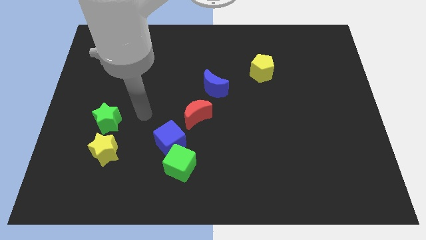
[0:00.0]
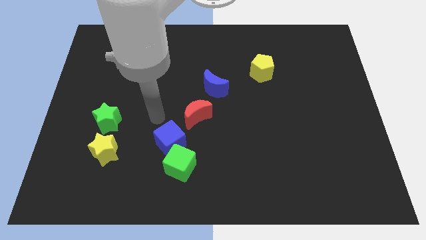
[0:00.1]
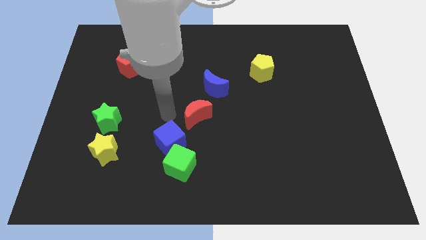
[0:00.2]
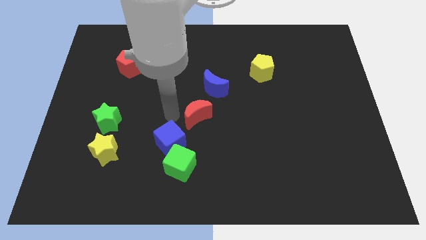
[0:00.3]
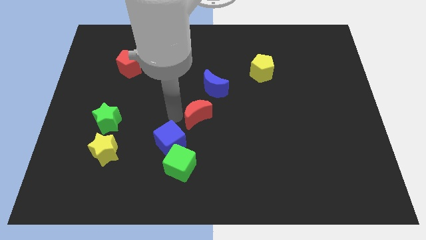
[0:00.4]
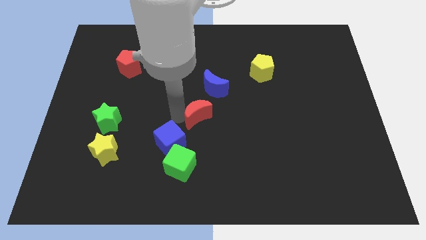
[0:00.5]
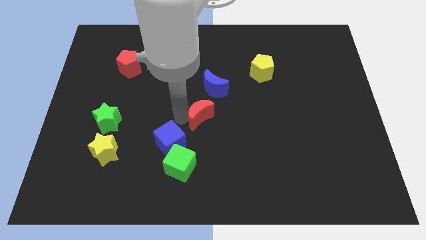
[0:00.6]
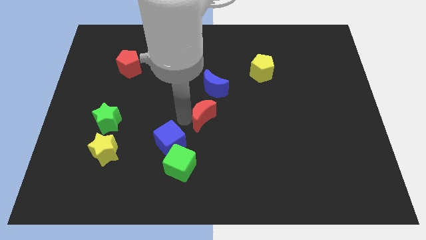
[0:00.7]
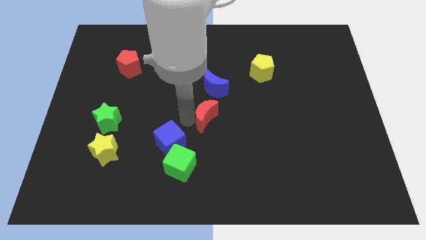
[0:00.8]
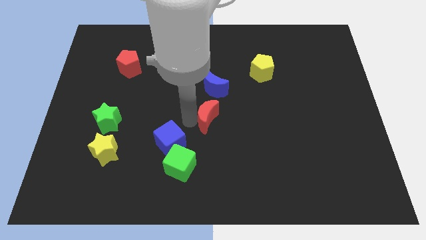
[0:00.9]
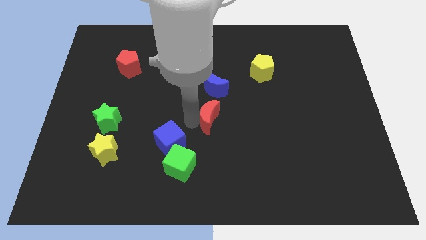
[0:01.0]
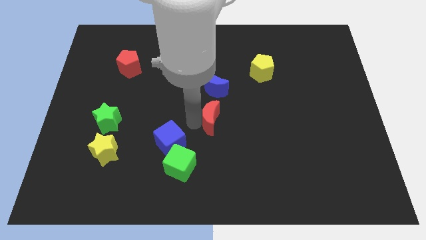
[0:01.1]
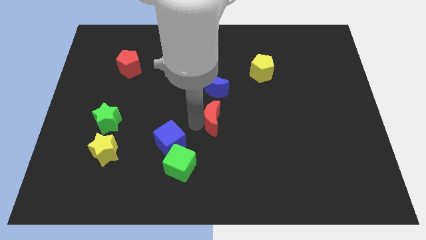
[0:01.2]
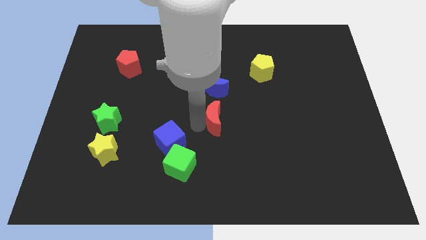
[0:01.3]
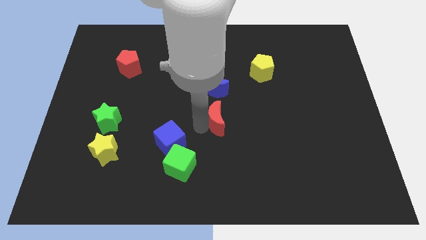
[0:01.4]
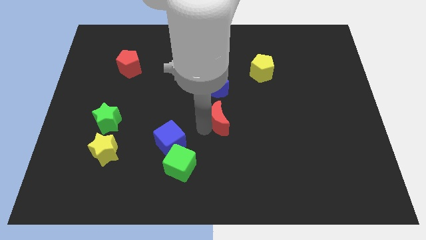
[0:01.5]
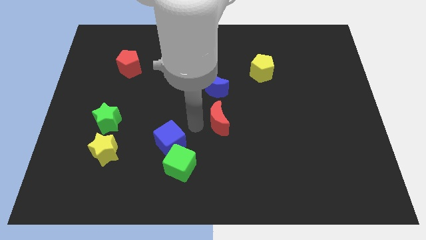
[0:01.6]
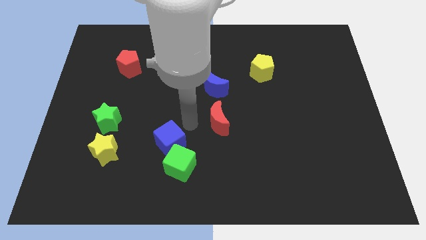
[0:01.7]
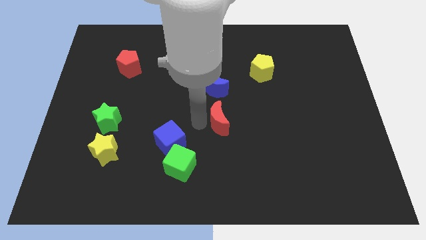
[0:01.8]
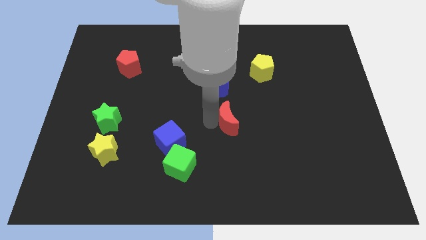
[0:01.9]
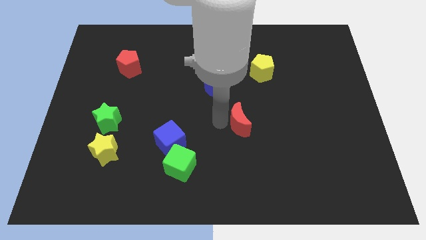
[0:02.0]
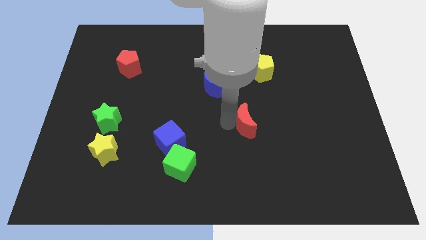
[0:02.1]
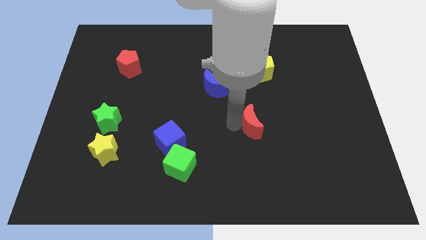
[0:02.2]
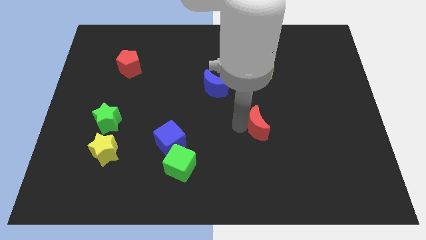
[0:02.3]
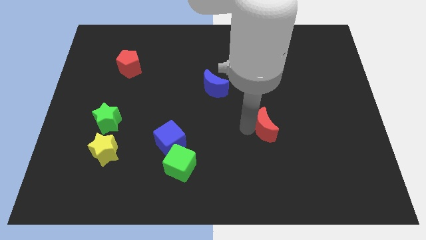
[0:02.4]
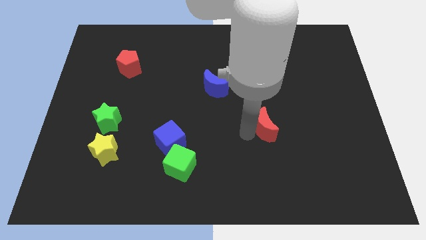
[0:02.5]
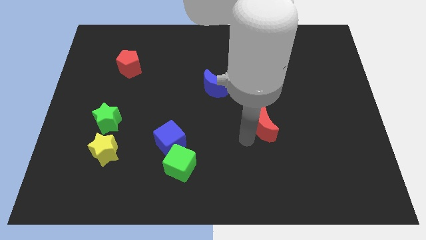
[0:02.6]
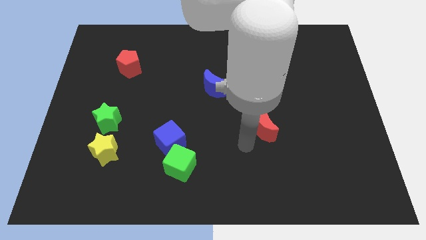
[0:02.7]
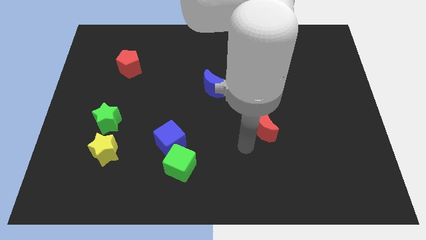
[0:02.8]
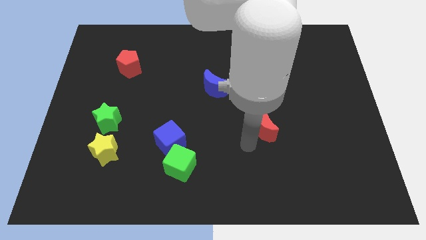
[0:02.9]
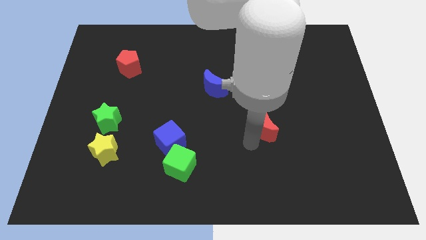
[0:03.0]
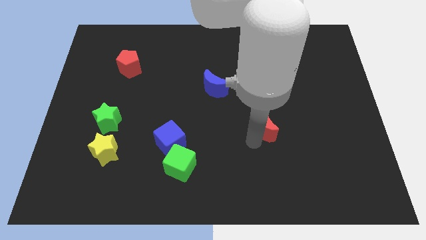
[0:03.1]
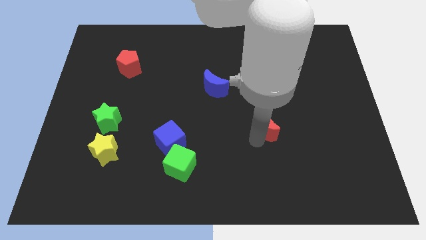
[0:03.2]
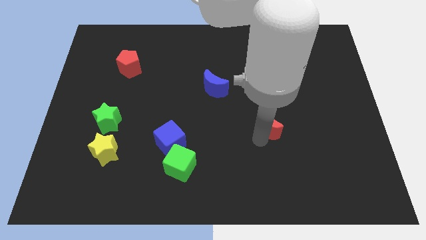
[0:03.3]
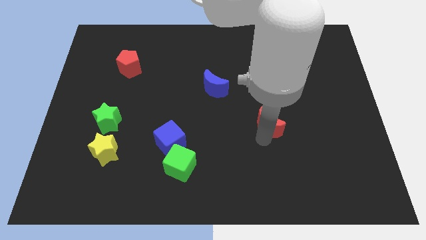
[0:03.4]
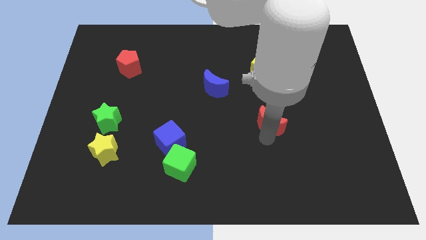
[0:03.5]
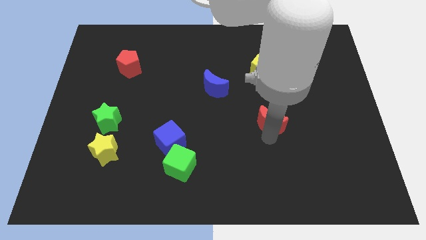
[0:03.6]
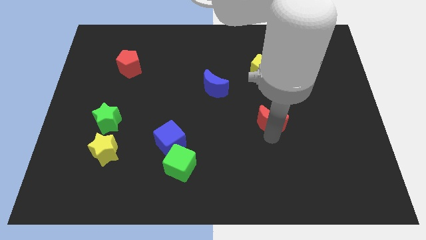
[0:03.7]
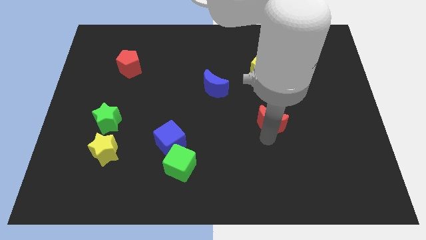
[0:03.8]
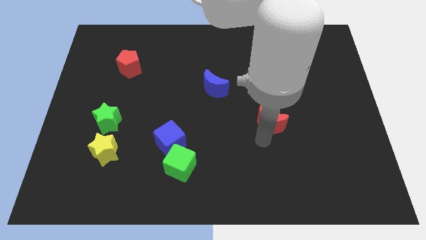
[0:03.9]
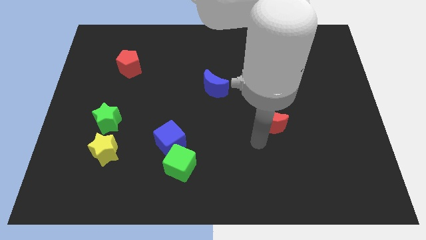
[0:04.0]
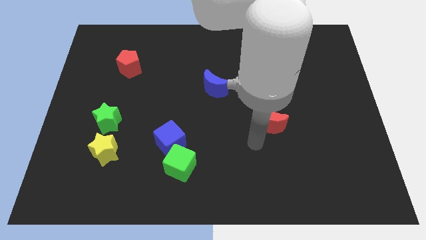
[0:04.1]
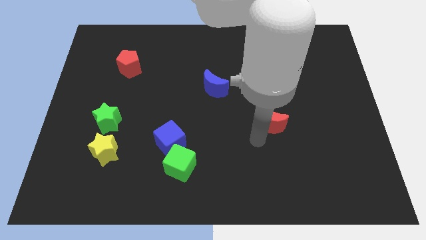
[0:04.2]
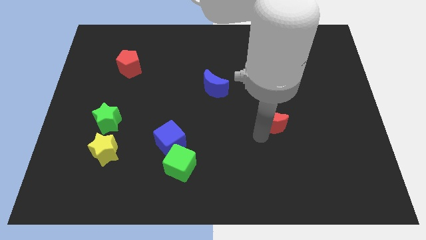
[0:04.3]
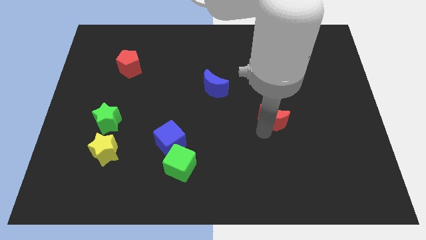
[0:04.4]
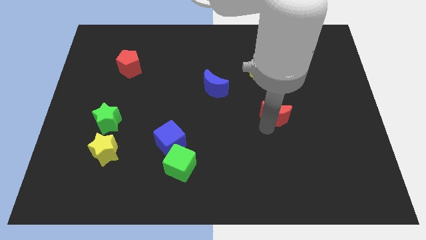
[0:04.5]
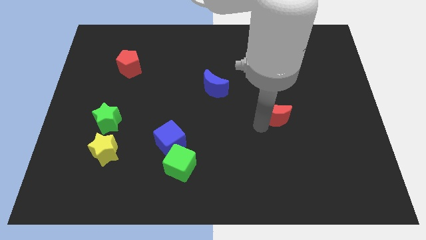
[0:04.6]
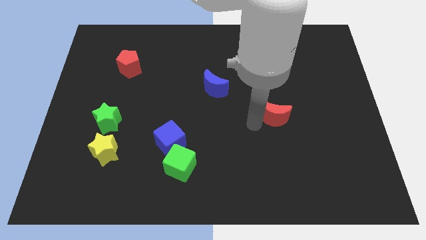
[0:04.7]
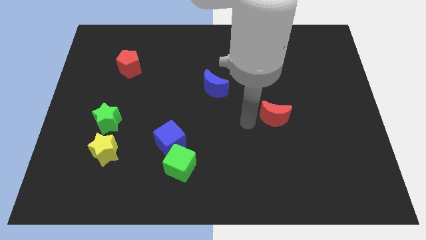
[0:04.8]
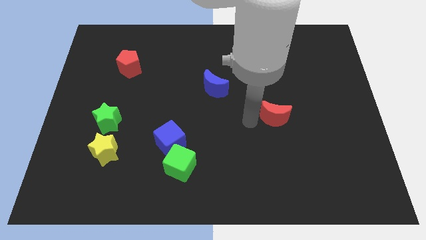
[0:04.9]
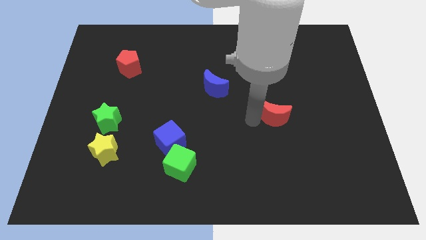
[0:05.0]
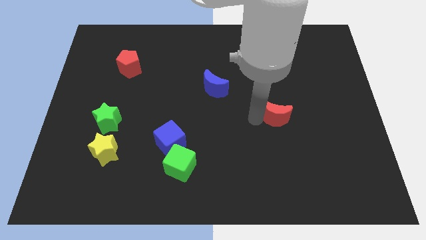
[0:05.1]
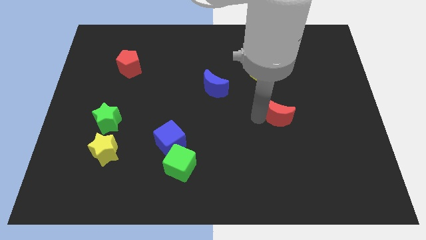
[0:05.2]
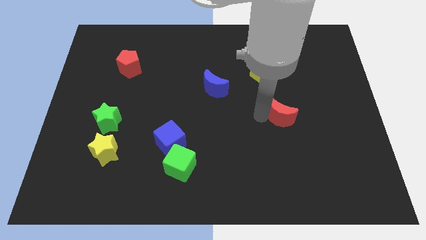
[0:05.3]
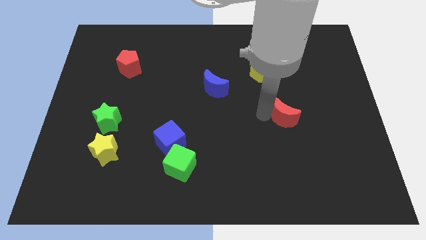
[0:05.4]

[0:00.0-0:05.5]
push the red moon right

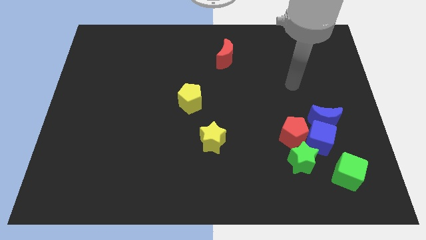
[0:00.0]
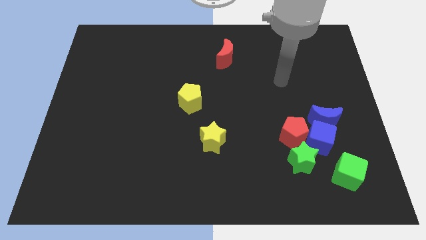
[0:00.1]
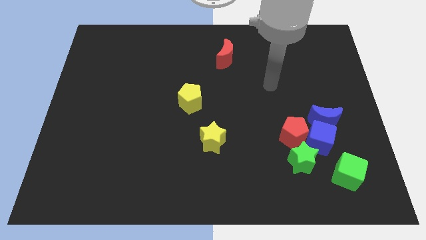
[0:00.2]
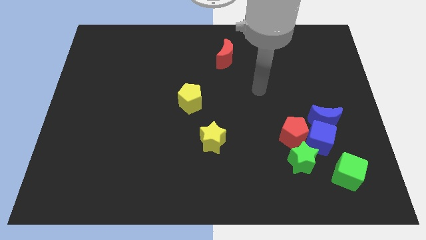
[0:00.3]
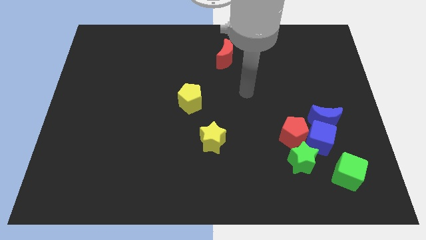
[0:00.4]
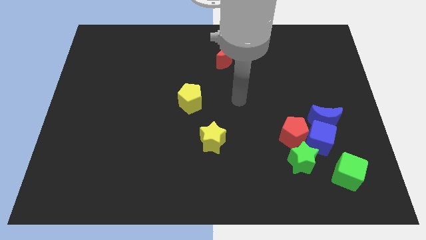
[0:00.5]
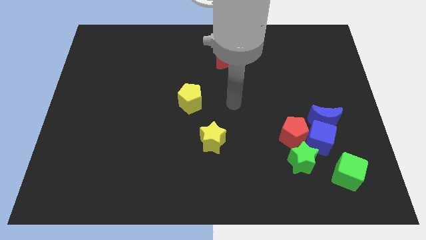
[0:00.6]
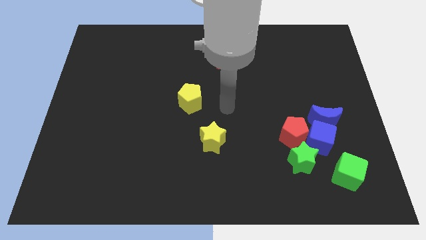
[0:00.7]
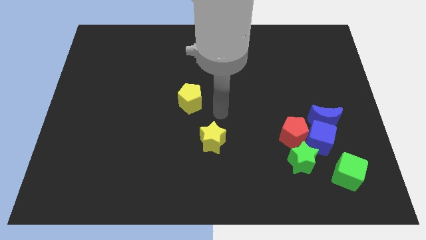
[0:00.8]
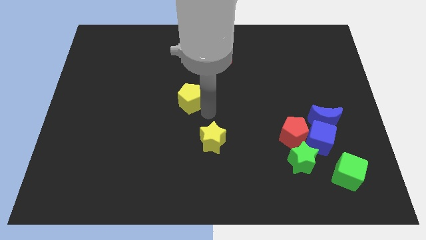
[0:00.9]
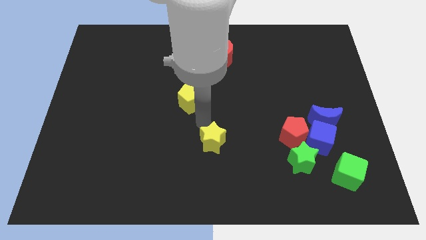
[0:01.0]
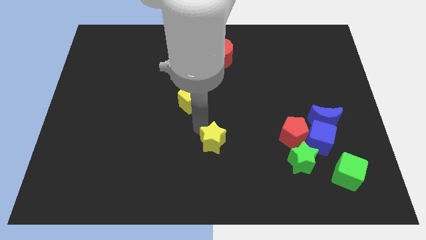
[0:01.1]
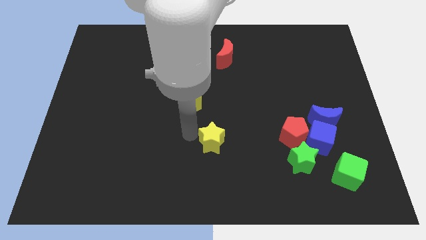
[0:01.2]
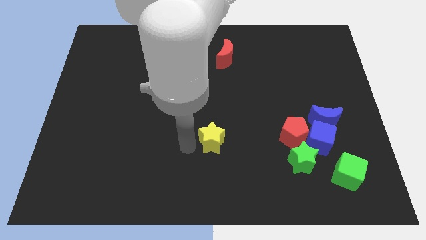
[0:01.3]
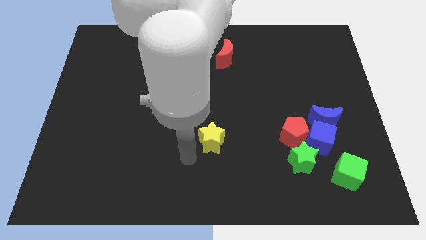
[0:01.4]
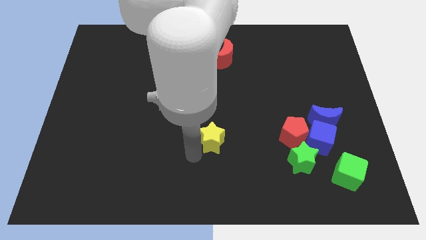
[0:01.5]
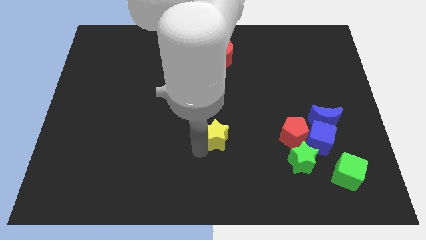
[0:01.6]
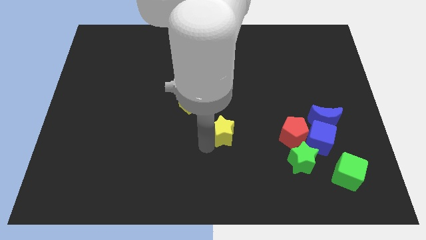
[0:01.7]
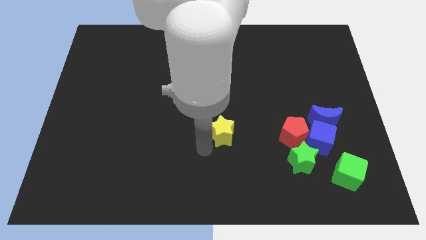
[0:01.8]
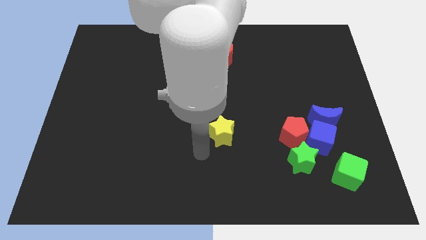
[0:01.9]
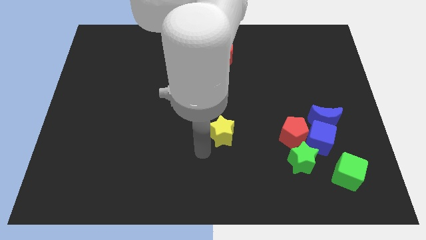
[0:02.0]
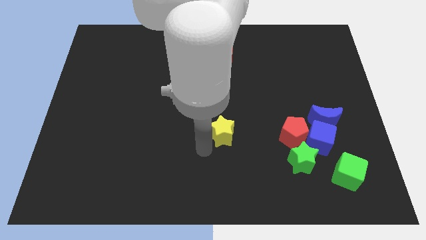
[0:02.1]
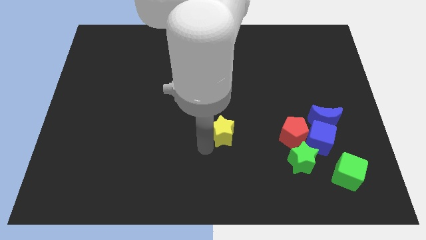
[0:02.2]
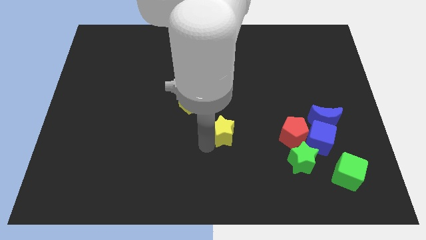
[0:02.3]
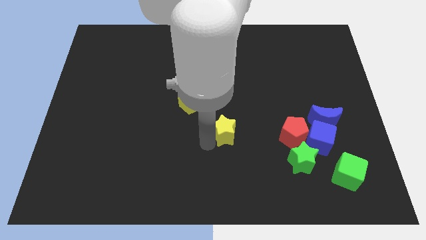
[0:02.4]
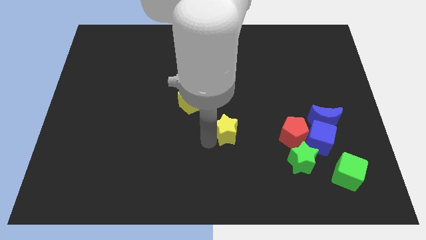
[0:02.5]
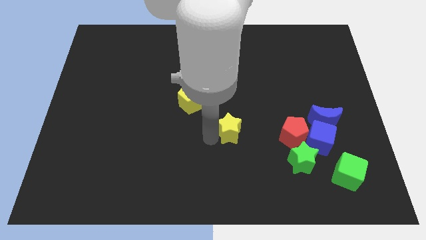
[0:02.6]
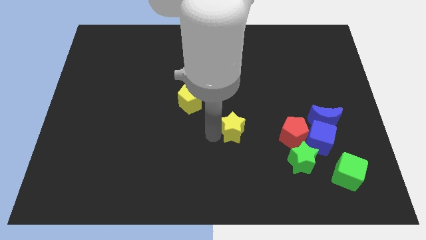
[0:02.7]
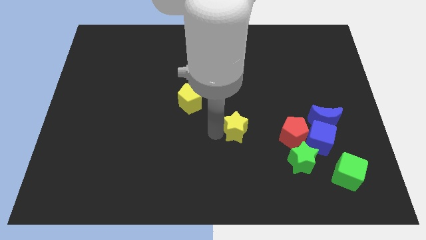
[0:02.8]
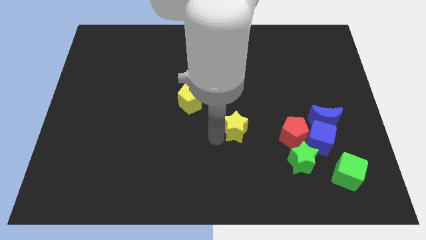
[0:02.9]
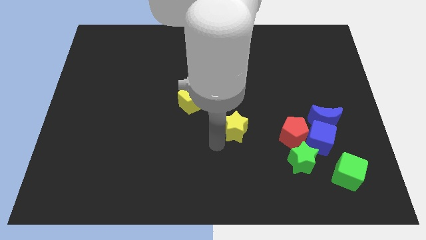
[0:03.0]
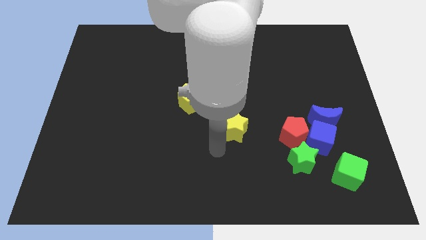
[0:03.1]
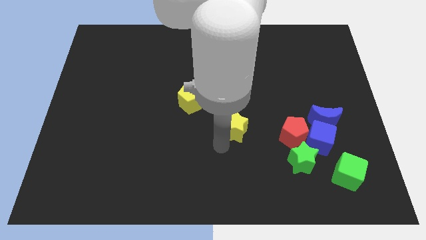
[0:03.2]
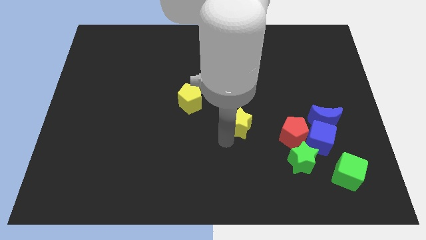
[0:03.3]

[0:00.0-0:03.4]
slide the yellow star a bit upwards and right
